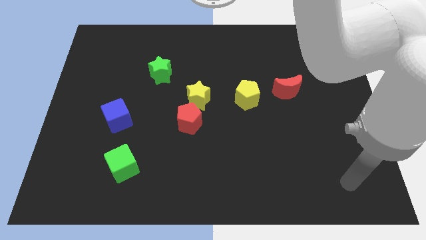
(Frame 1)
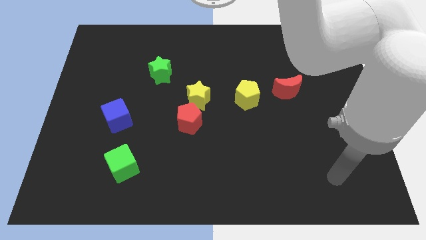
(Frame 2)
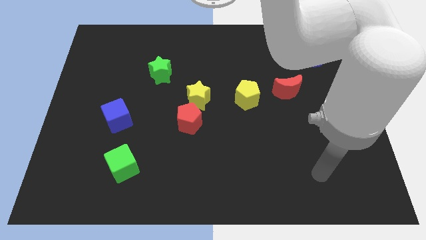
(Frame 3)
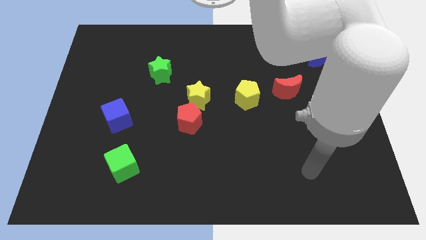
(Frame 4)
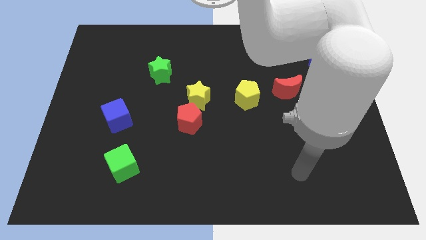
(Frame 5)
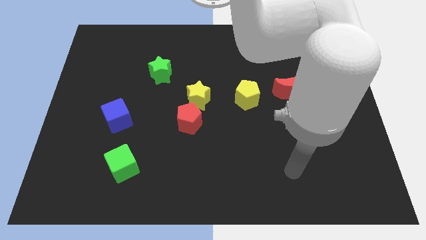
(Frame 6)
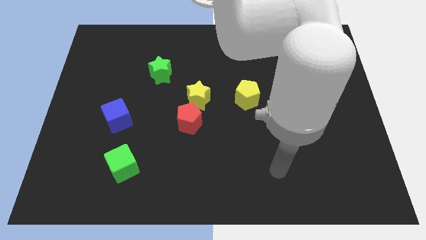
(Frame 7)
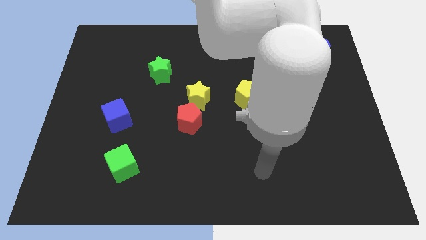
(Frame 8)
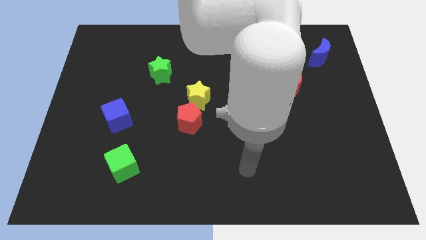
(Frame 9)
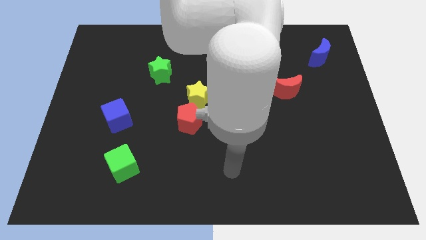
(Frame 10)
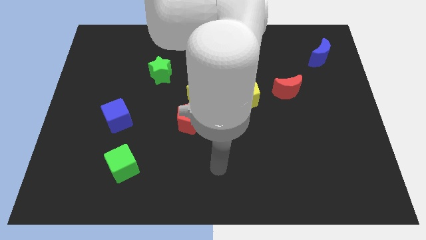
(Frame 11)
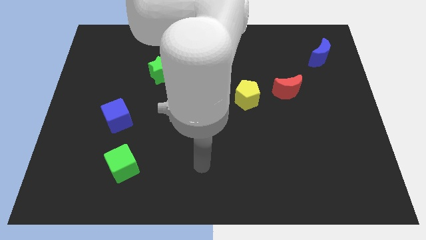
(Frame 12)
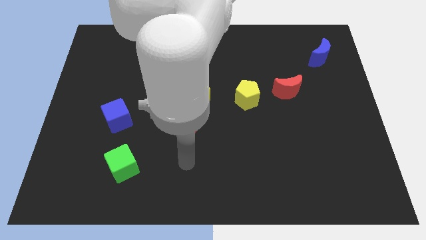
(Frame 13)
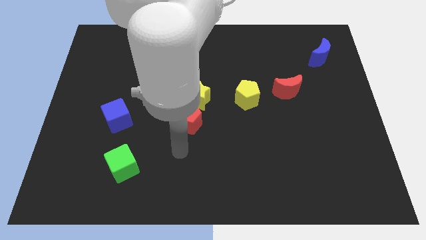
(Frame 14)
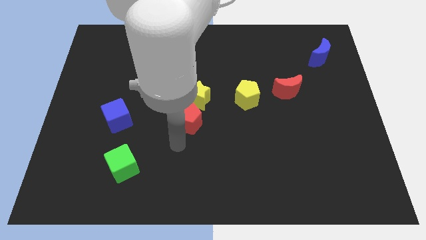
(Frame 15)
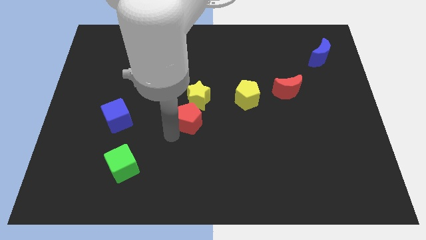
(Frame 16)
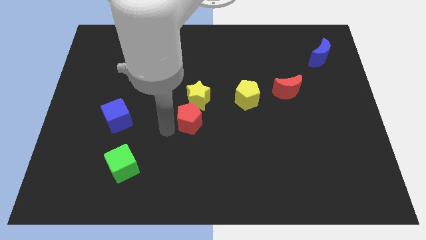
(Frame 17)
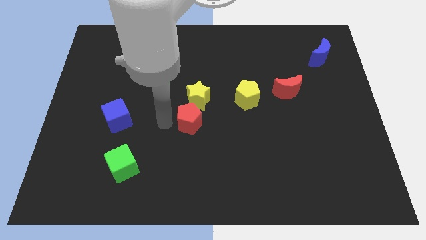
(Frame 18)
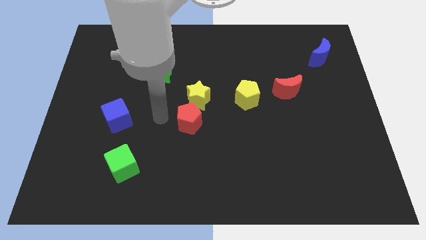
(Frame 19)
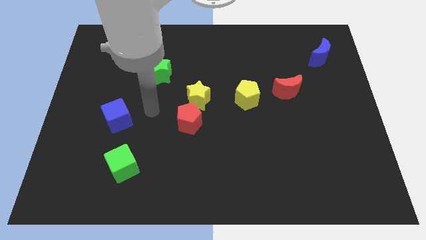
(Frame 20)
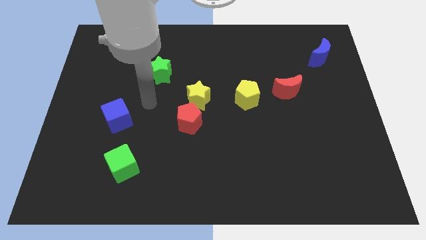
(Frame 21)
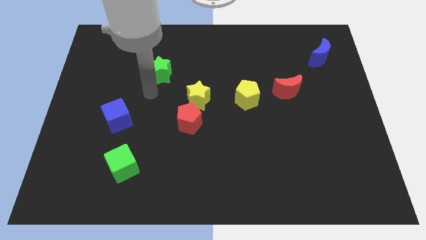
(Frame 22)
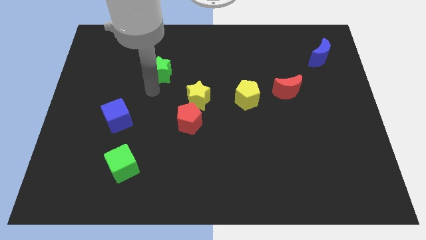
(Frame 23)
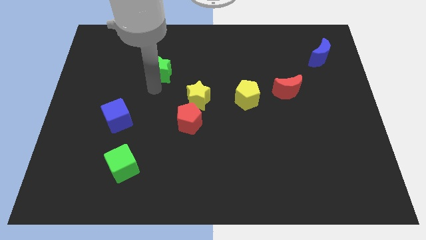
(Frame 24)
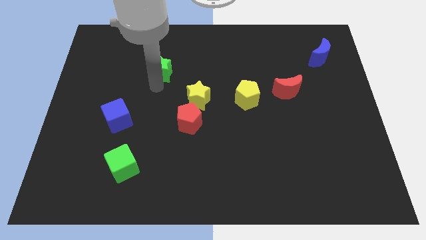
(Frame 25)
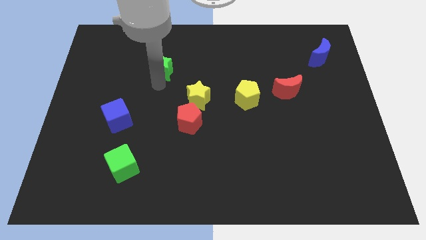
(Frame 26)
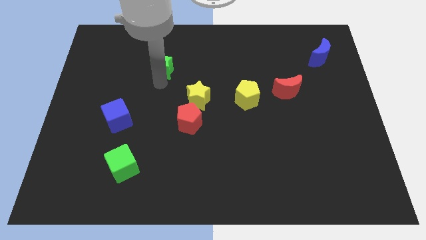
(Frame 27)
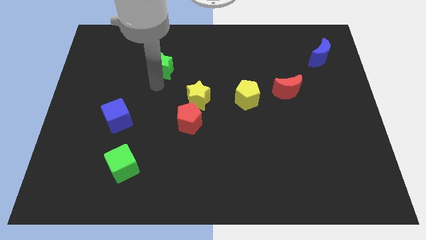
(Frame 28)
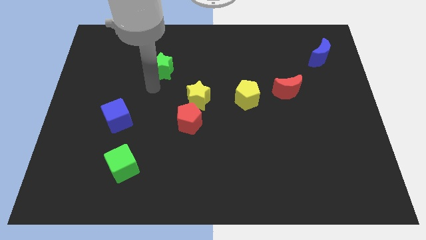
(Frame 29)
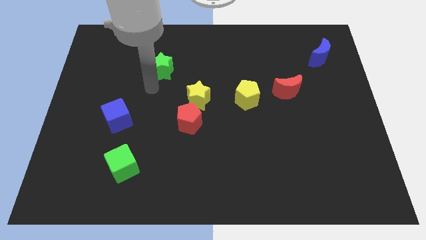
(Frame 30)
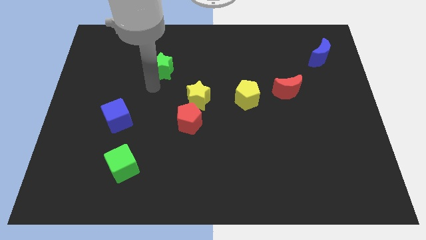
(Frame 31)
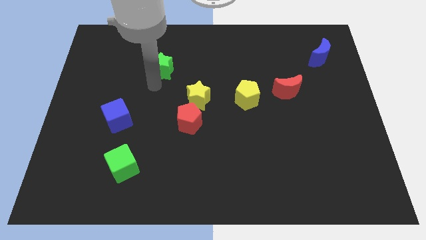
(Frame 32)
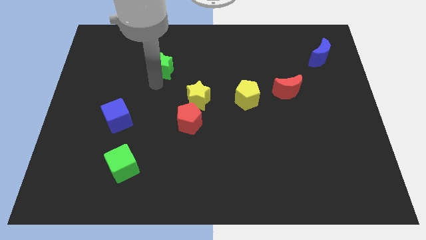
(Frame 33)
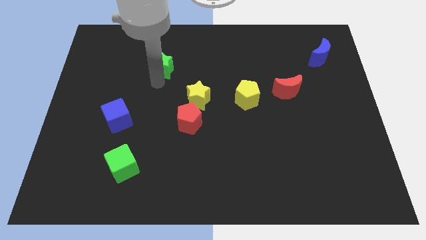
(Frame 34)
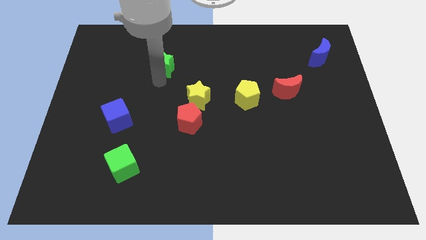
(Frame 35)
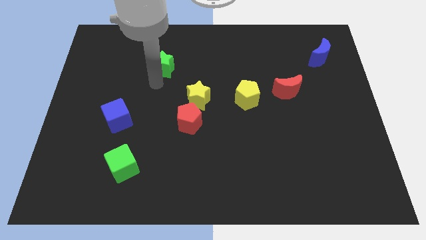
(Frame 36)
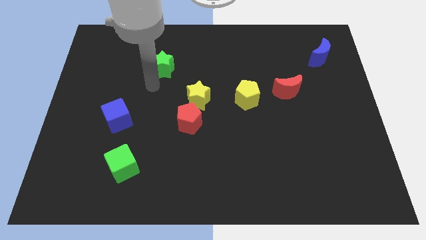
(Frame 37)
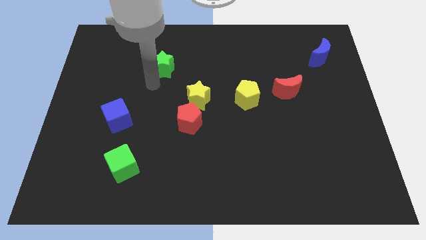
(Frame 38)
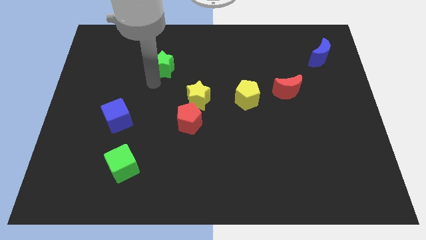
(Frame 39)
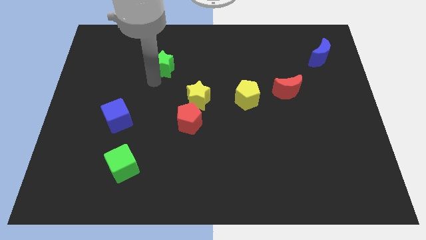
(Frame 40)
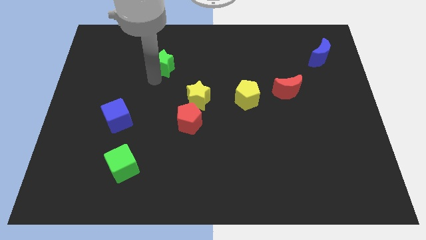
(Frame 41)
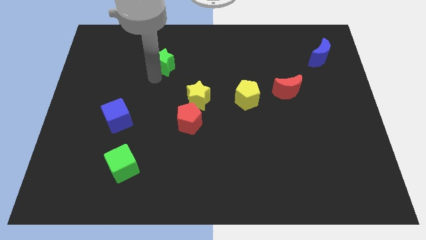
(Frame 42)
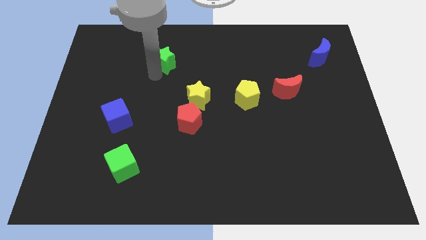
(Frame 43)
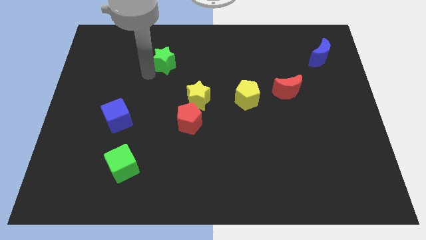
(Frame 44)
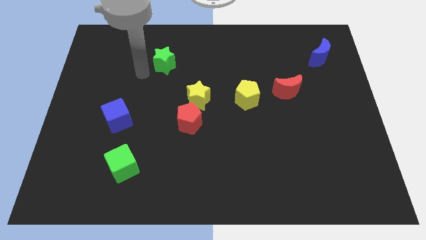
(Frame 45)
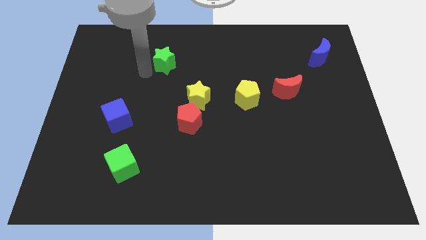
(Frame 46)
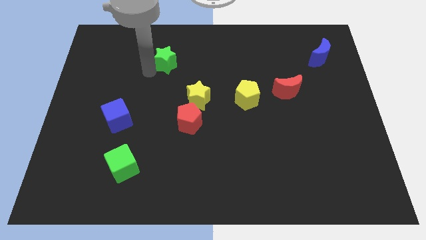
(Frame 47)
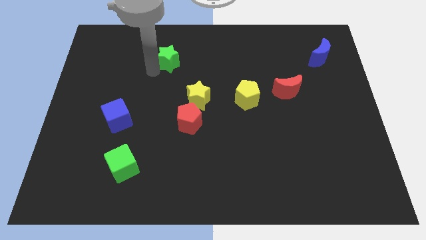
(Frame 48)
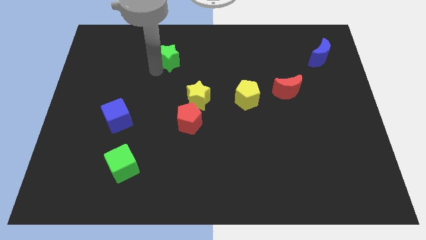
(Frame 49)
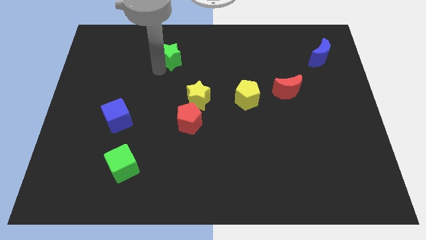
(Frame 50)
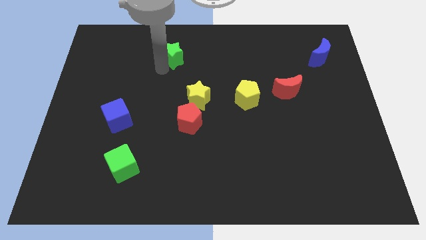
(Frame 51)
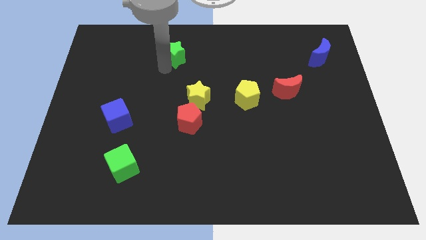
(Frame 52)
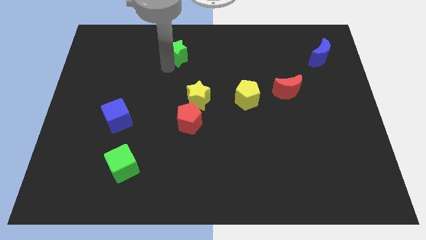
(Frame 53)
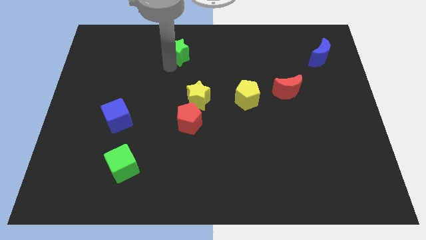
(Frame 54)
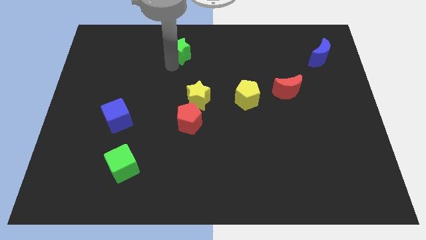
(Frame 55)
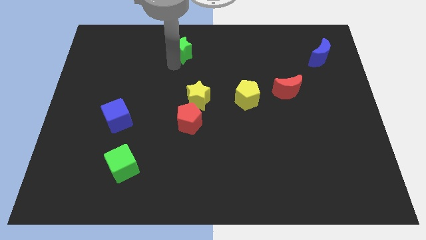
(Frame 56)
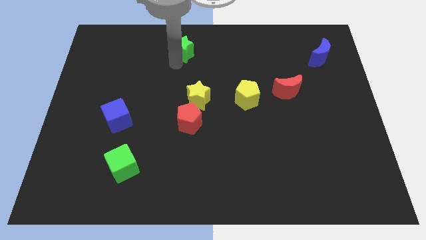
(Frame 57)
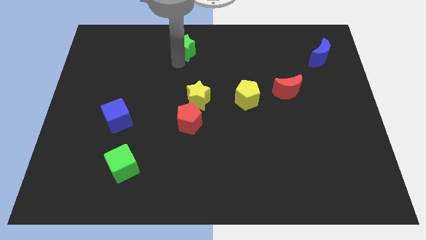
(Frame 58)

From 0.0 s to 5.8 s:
move the green star to the top side

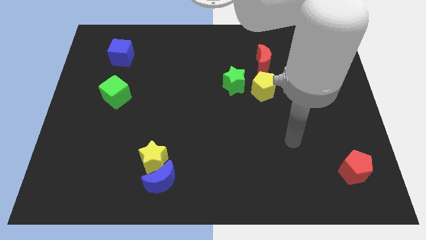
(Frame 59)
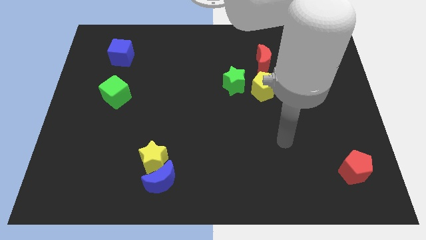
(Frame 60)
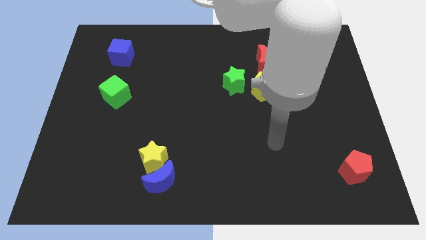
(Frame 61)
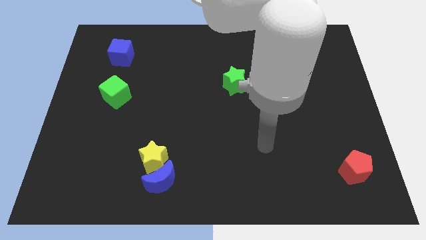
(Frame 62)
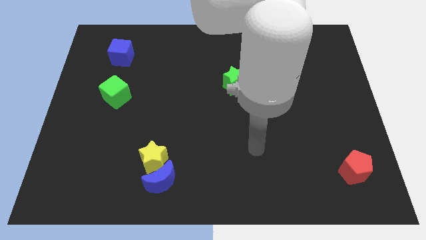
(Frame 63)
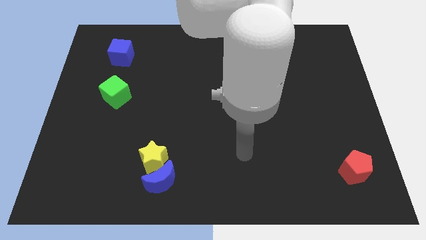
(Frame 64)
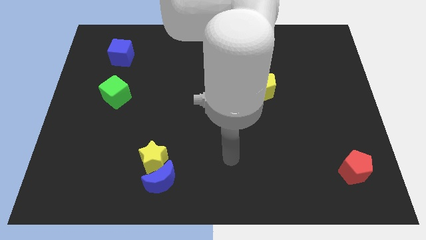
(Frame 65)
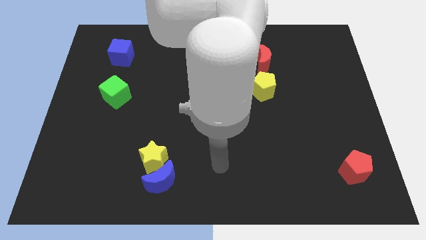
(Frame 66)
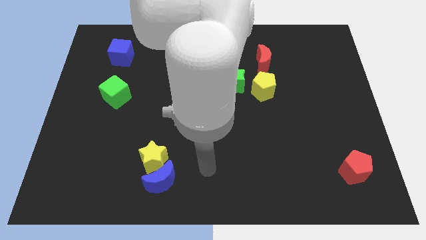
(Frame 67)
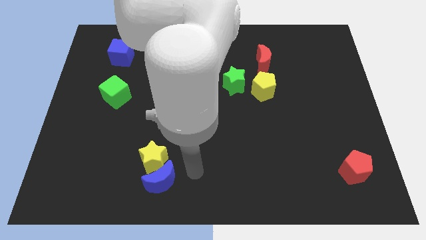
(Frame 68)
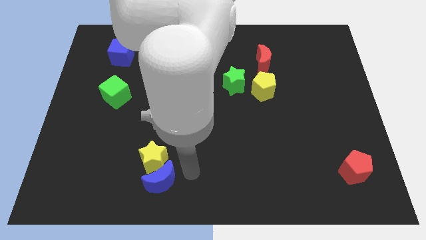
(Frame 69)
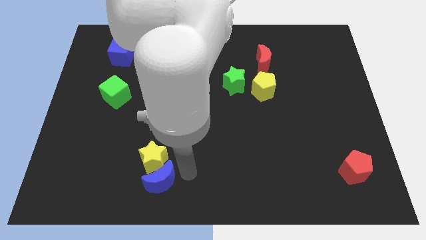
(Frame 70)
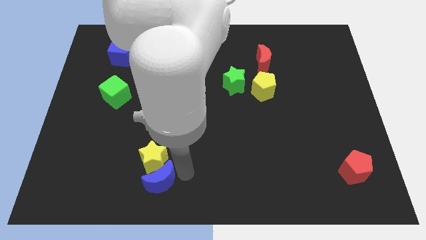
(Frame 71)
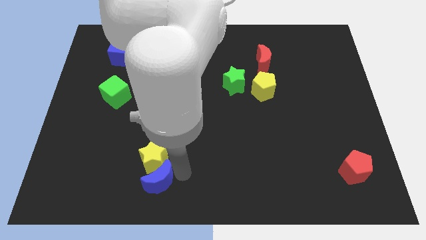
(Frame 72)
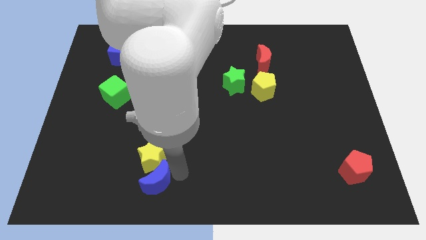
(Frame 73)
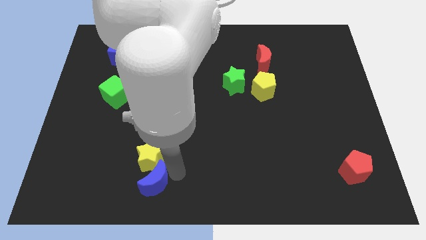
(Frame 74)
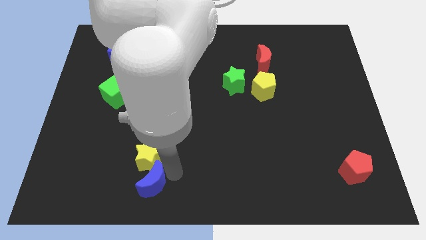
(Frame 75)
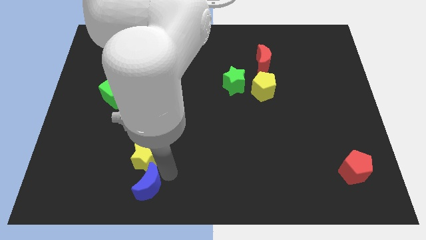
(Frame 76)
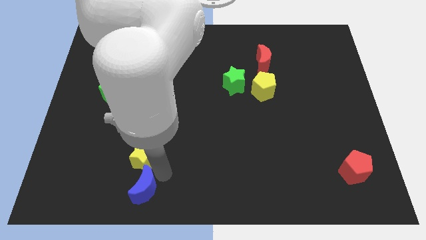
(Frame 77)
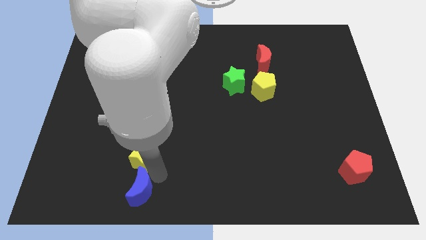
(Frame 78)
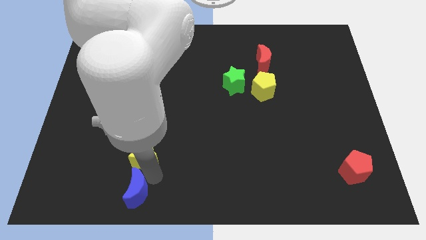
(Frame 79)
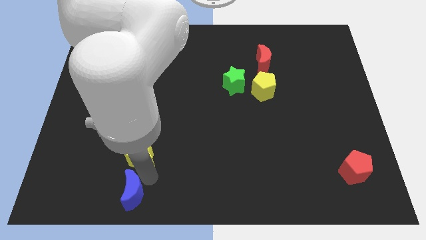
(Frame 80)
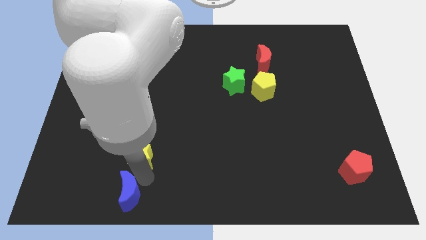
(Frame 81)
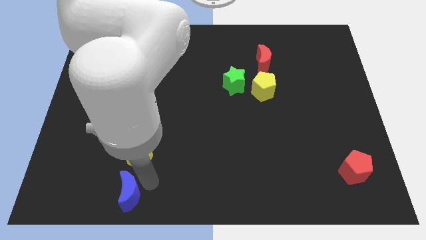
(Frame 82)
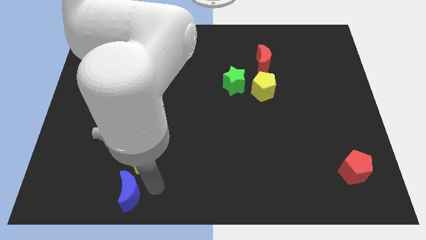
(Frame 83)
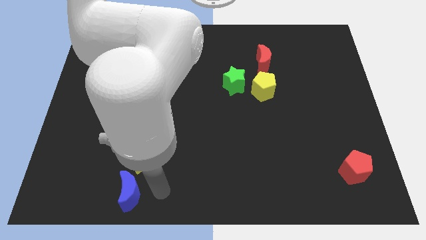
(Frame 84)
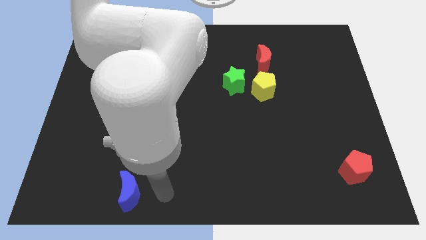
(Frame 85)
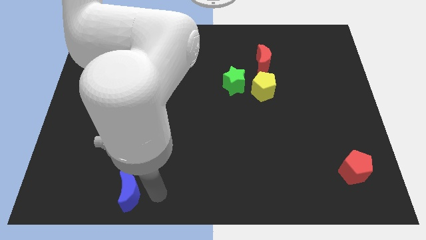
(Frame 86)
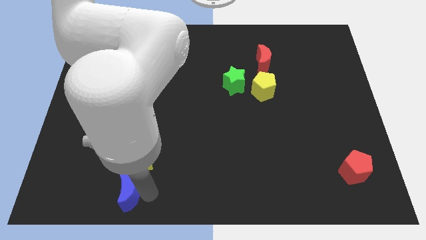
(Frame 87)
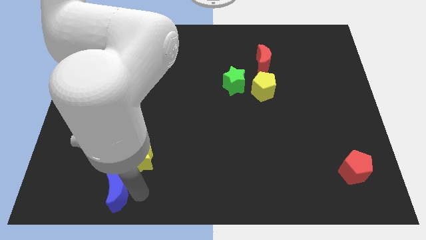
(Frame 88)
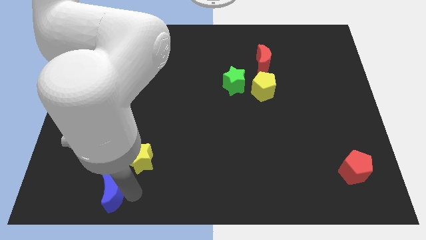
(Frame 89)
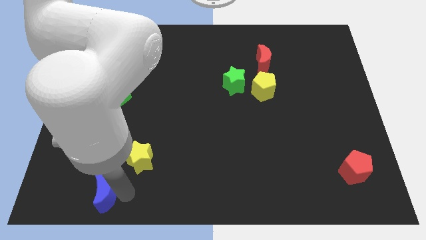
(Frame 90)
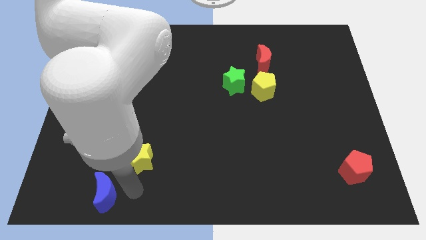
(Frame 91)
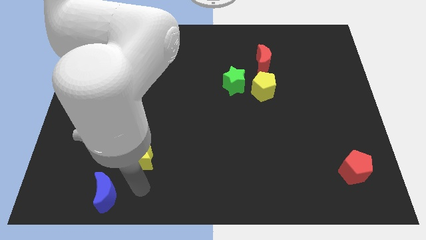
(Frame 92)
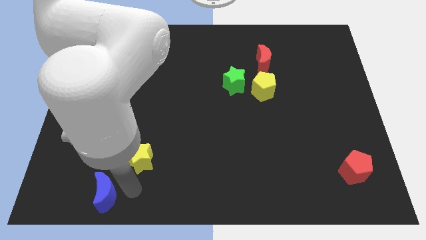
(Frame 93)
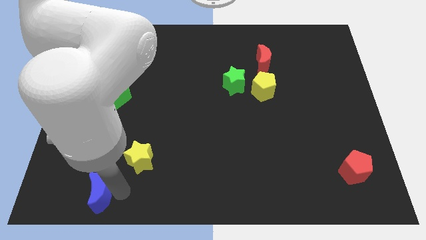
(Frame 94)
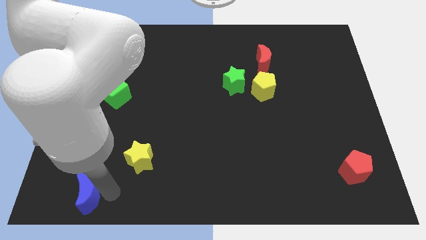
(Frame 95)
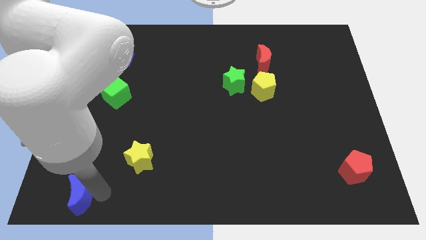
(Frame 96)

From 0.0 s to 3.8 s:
move the blue moon to the bottom left corner
